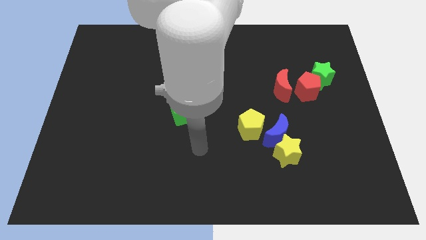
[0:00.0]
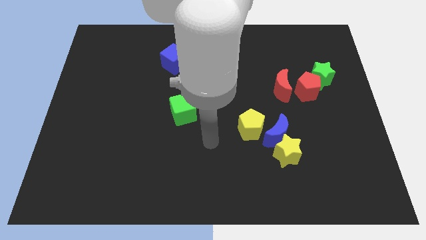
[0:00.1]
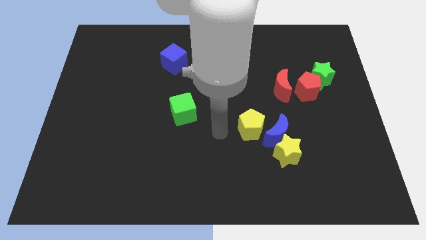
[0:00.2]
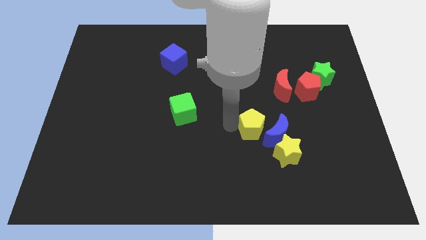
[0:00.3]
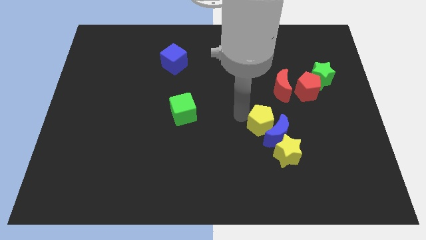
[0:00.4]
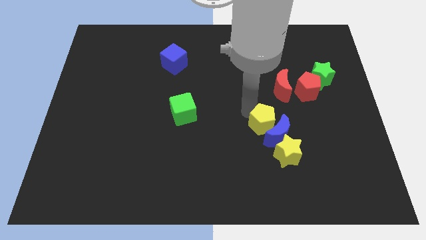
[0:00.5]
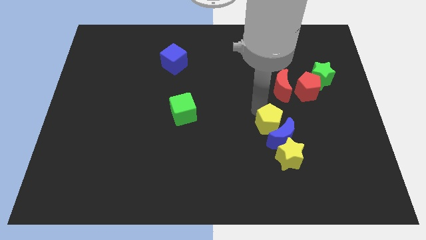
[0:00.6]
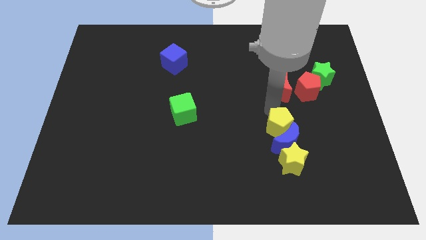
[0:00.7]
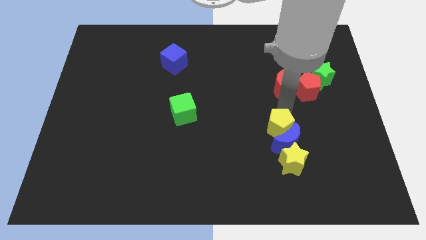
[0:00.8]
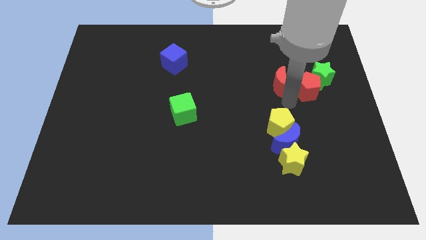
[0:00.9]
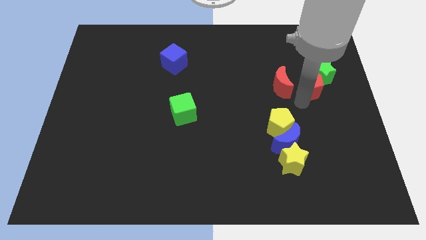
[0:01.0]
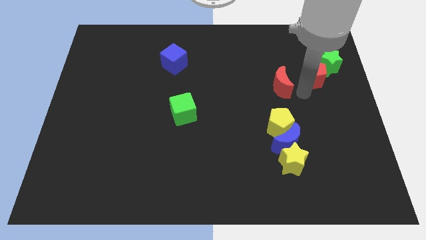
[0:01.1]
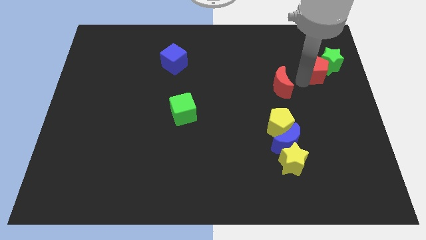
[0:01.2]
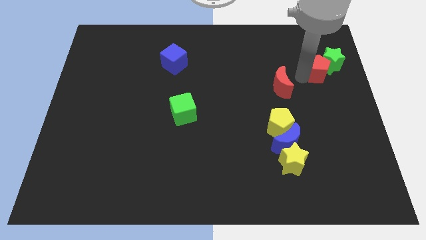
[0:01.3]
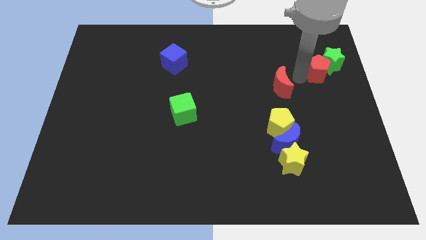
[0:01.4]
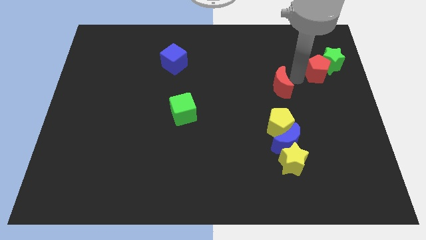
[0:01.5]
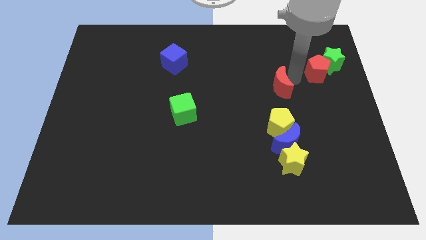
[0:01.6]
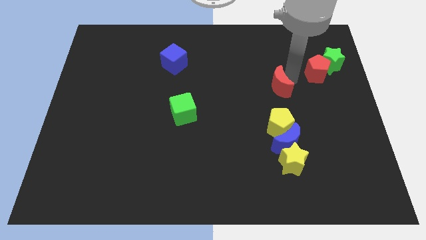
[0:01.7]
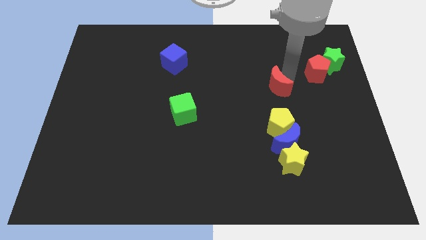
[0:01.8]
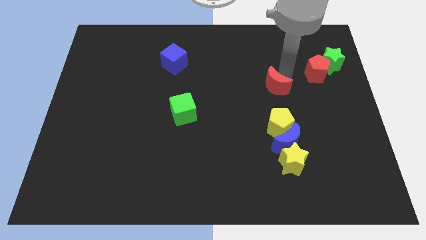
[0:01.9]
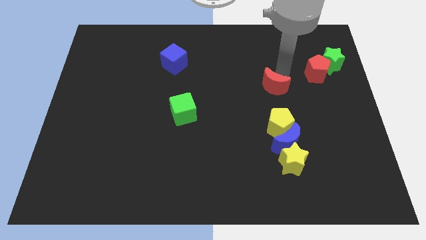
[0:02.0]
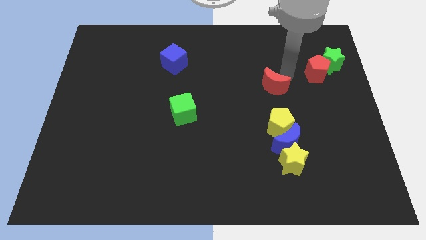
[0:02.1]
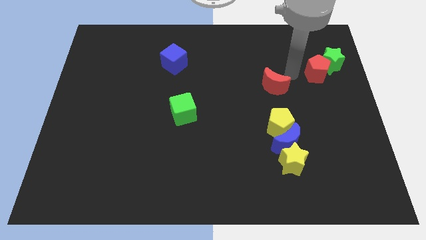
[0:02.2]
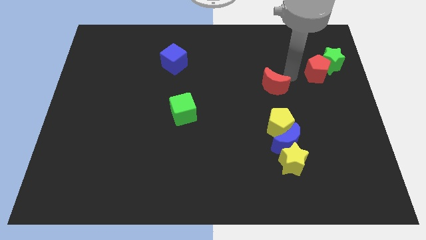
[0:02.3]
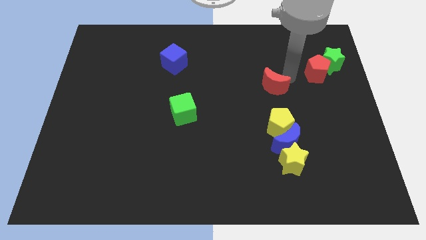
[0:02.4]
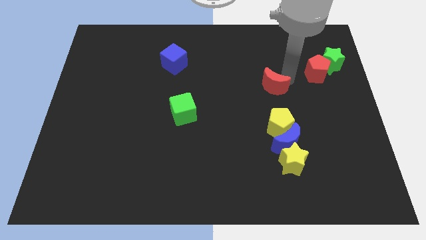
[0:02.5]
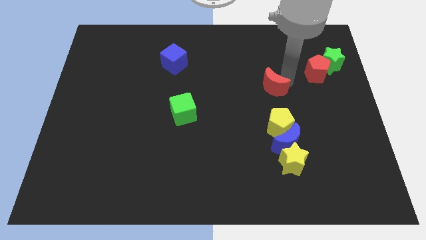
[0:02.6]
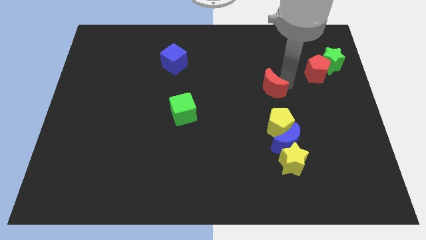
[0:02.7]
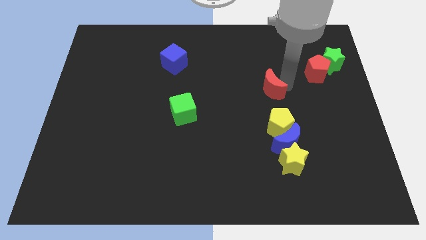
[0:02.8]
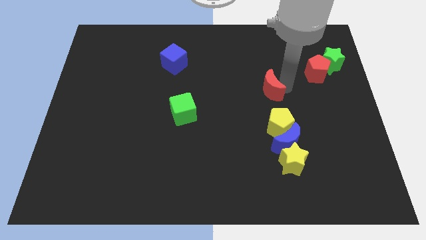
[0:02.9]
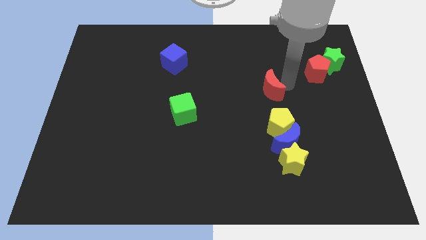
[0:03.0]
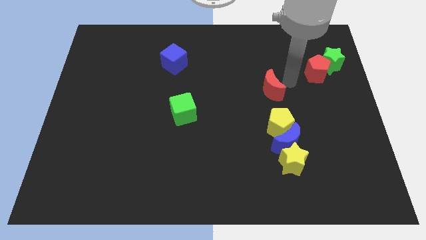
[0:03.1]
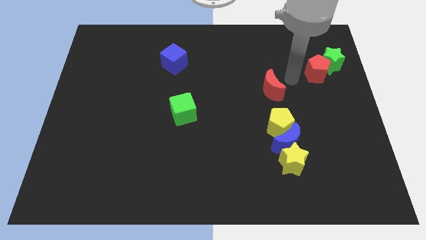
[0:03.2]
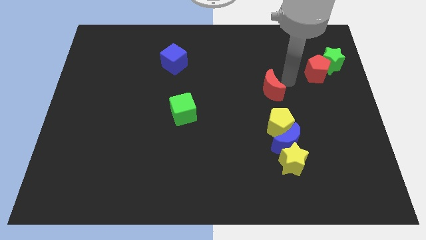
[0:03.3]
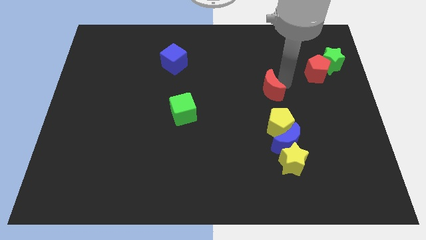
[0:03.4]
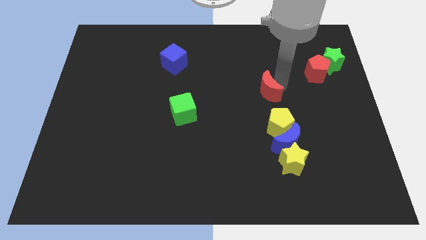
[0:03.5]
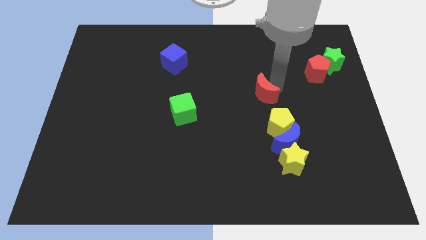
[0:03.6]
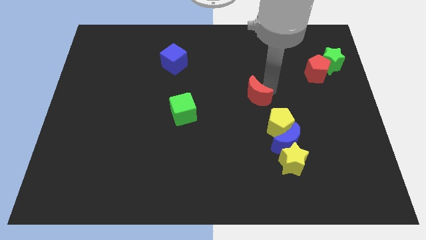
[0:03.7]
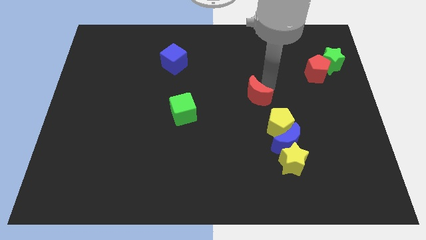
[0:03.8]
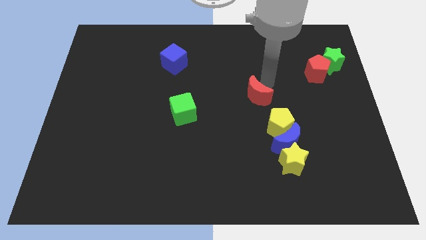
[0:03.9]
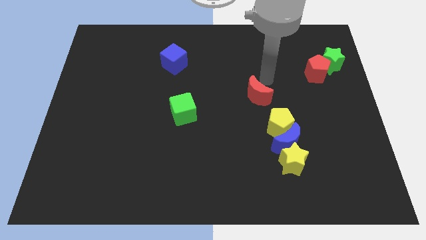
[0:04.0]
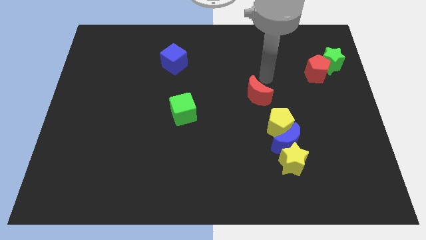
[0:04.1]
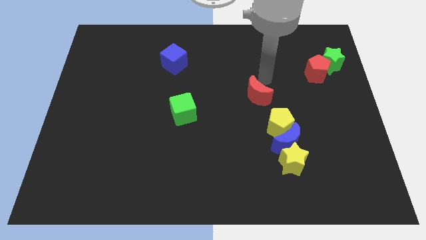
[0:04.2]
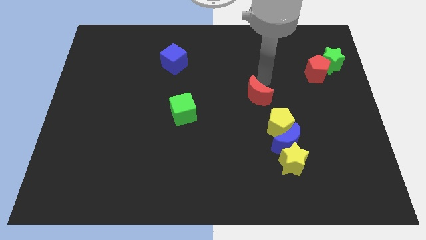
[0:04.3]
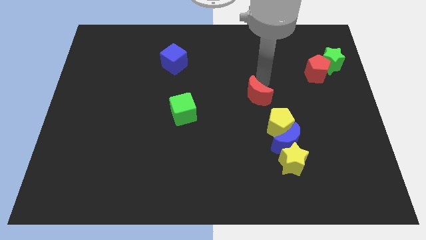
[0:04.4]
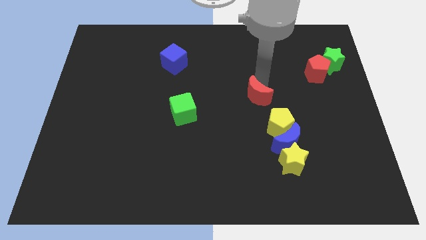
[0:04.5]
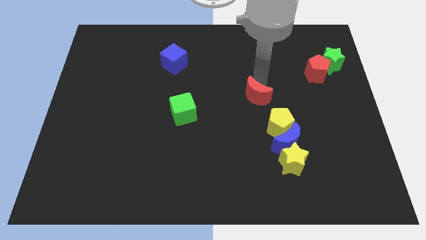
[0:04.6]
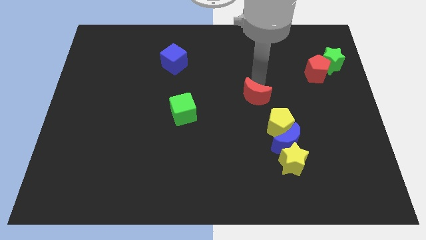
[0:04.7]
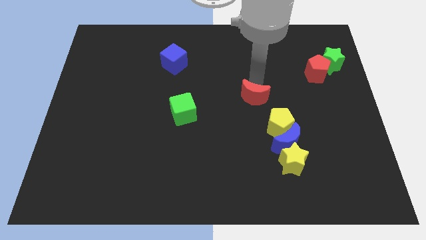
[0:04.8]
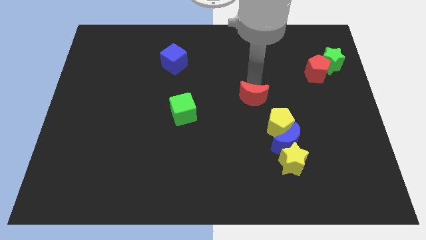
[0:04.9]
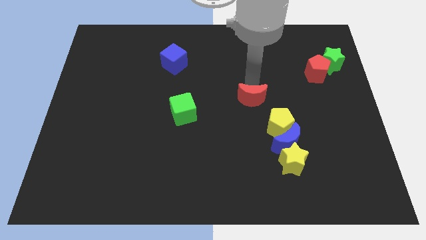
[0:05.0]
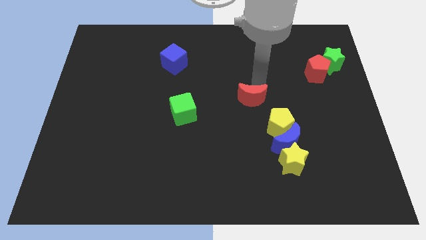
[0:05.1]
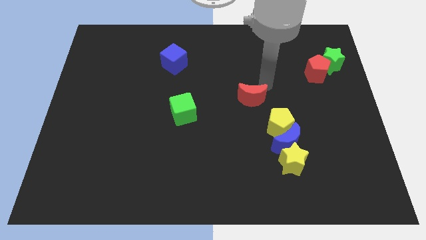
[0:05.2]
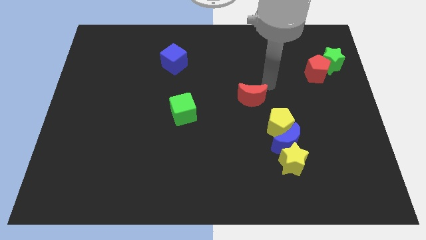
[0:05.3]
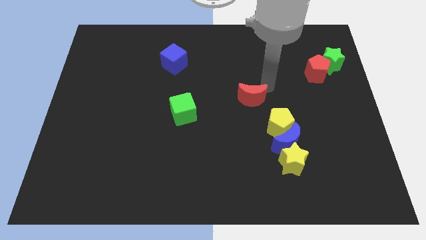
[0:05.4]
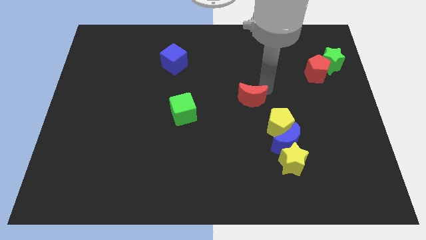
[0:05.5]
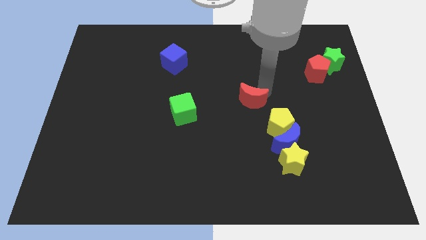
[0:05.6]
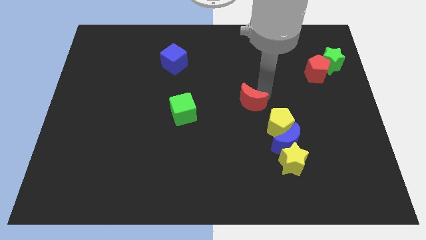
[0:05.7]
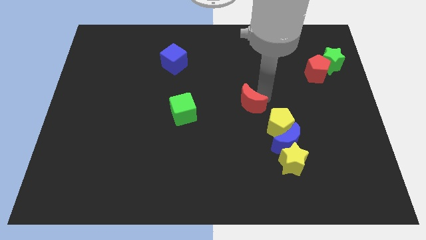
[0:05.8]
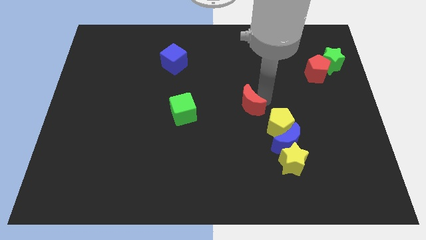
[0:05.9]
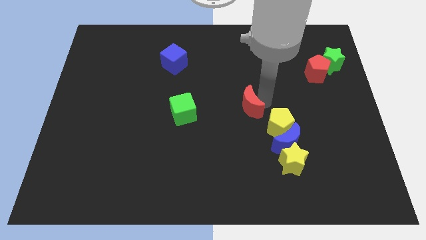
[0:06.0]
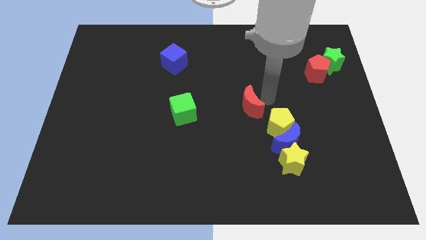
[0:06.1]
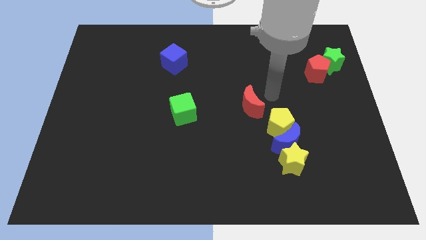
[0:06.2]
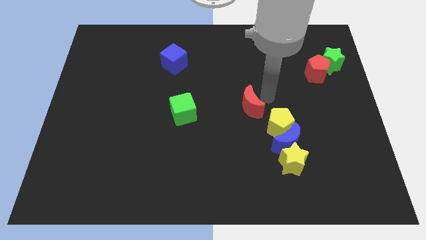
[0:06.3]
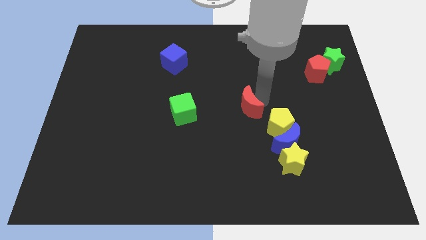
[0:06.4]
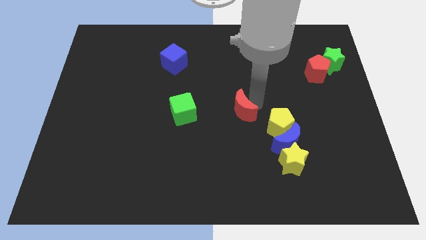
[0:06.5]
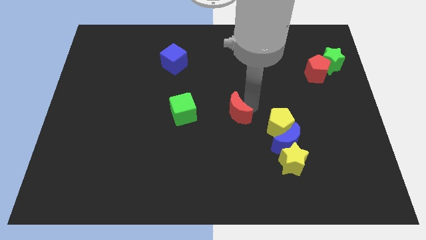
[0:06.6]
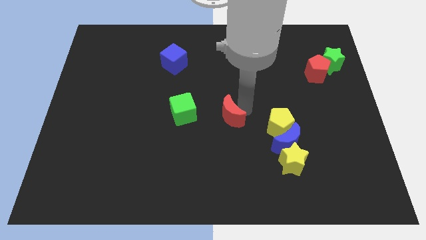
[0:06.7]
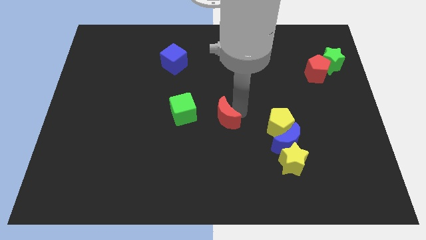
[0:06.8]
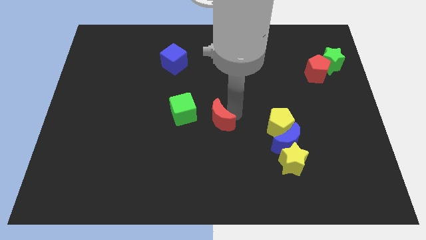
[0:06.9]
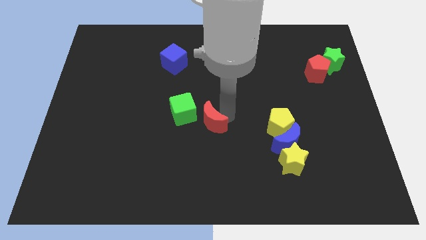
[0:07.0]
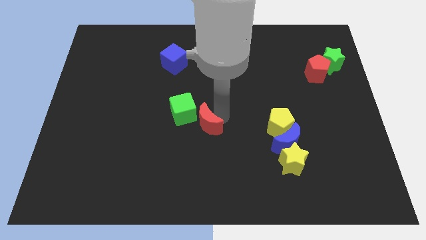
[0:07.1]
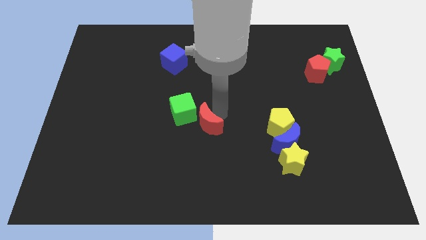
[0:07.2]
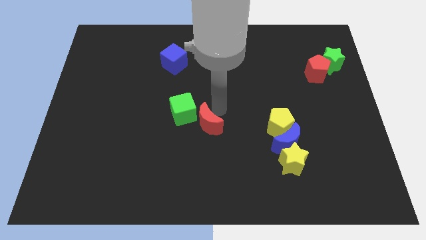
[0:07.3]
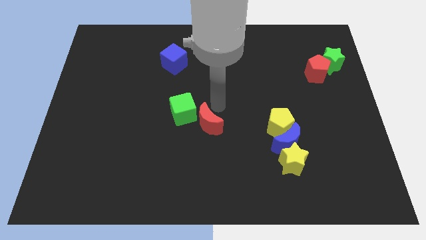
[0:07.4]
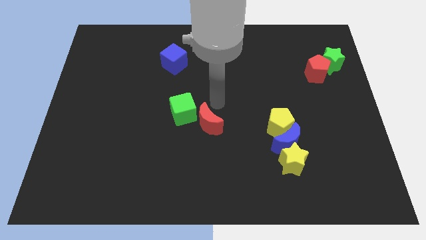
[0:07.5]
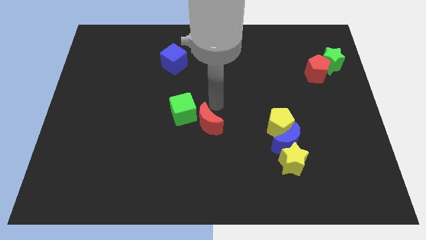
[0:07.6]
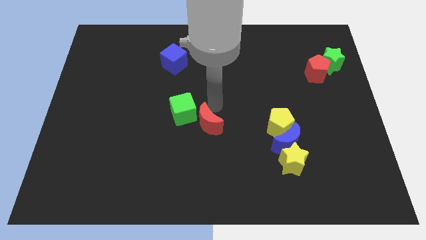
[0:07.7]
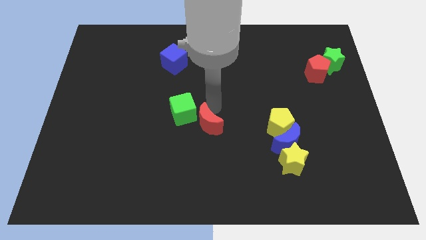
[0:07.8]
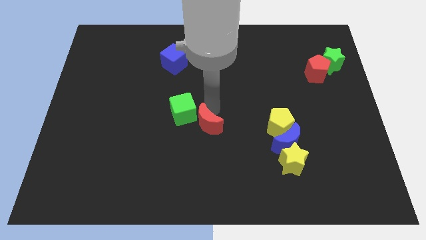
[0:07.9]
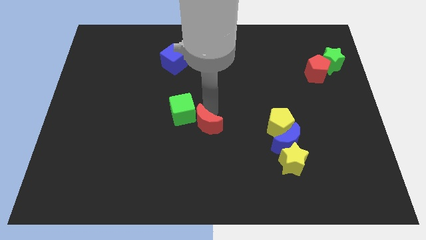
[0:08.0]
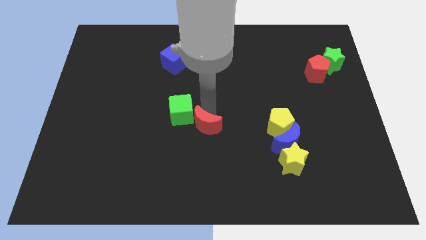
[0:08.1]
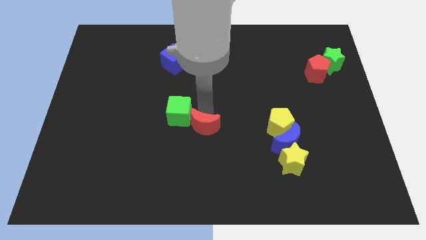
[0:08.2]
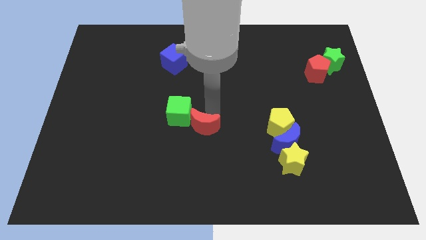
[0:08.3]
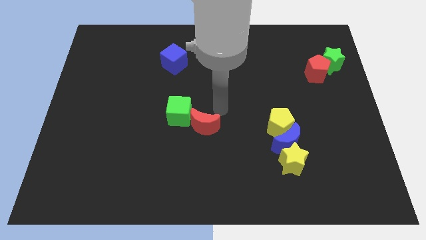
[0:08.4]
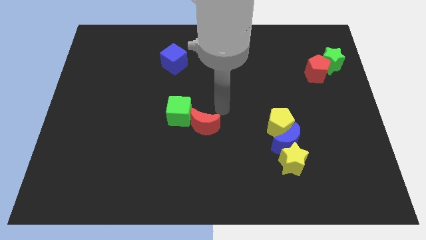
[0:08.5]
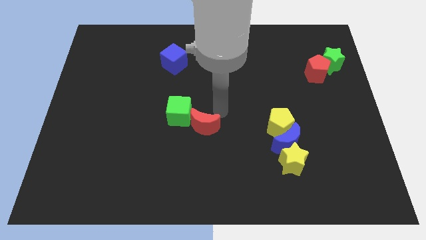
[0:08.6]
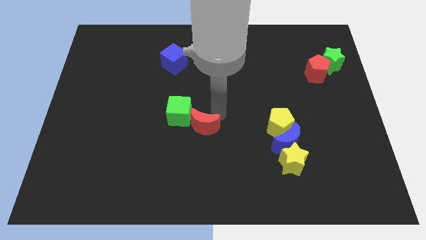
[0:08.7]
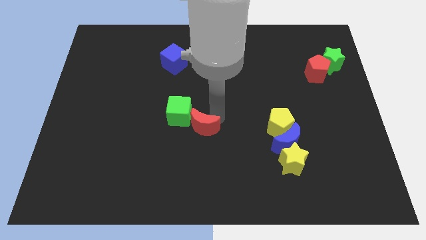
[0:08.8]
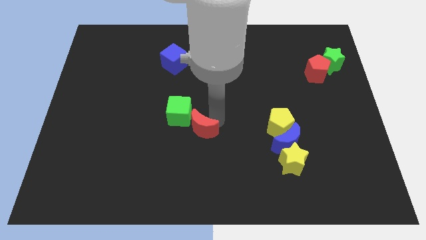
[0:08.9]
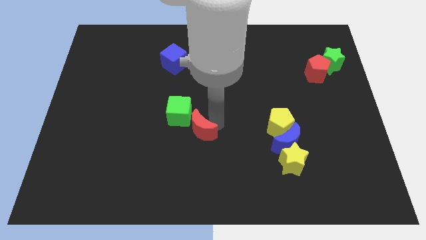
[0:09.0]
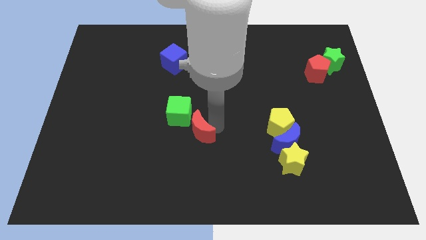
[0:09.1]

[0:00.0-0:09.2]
put the red moon to the bottom side of the green cube
